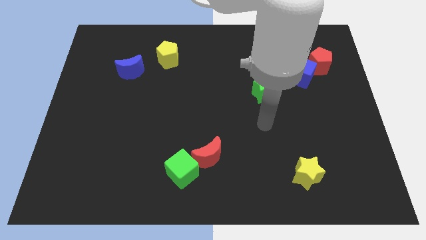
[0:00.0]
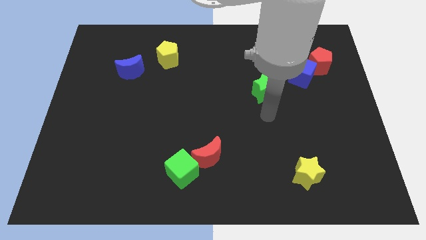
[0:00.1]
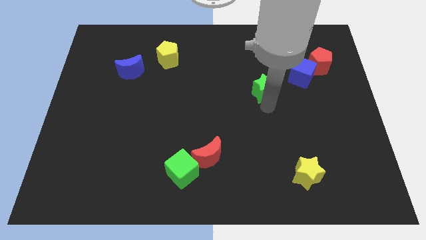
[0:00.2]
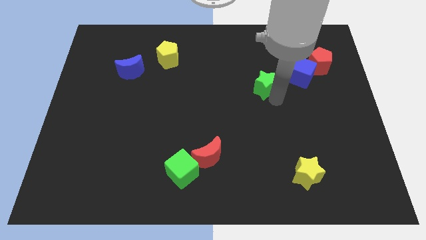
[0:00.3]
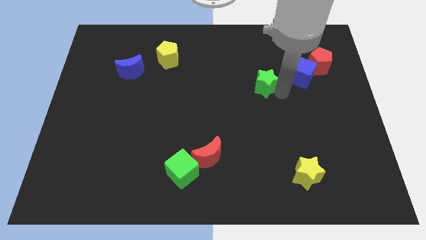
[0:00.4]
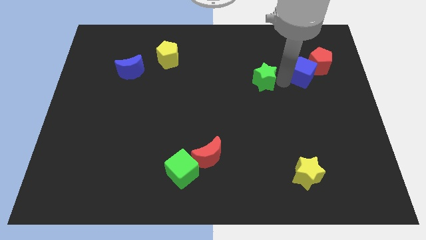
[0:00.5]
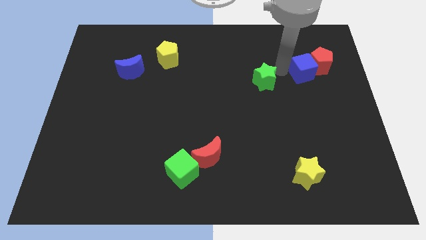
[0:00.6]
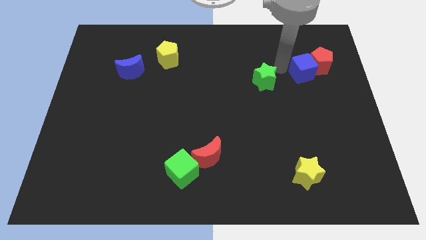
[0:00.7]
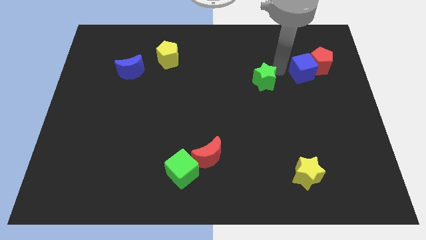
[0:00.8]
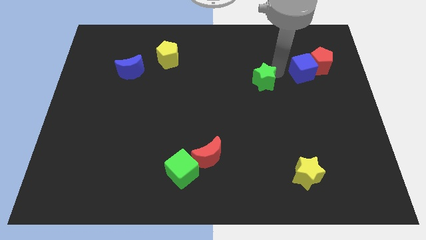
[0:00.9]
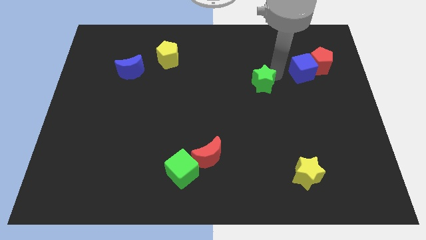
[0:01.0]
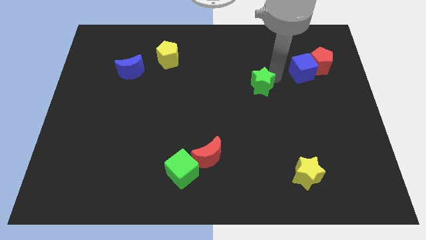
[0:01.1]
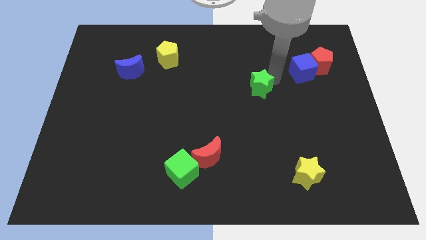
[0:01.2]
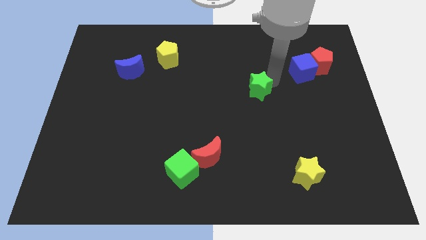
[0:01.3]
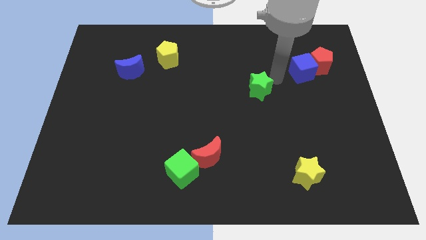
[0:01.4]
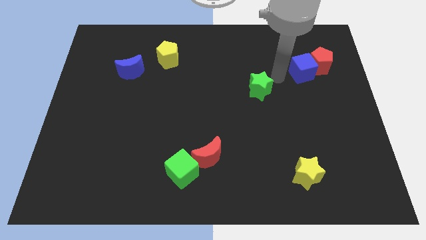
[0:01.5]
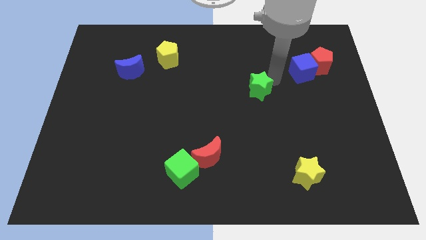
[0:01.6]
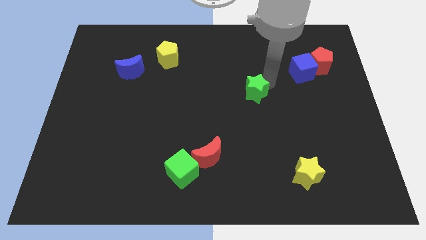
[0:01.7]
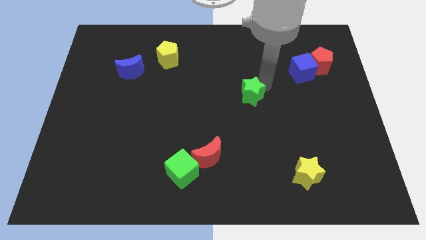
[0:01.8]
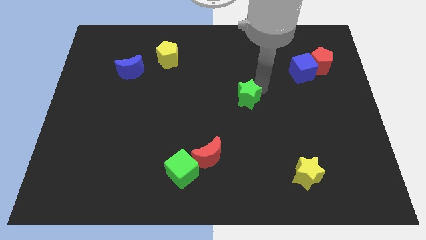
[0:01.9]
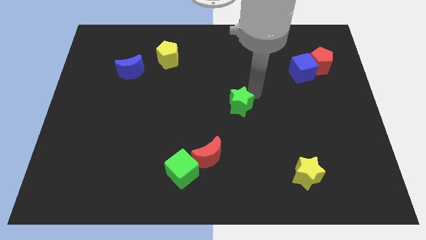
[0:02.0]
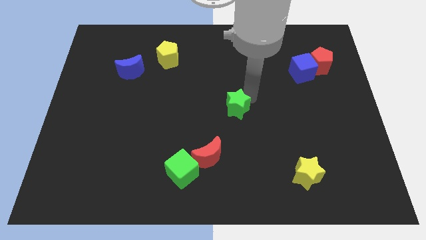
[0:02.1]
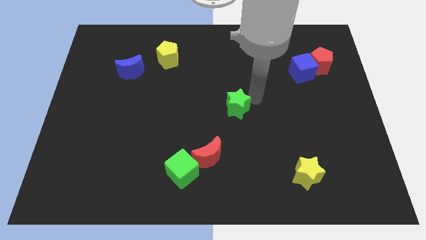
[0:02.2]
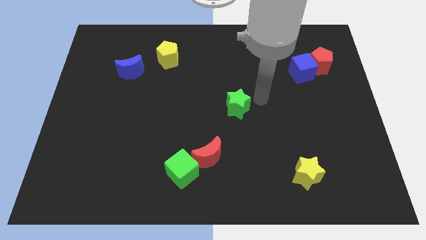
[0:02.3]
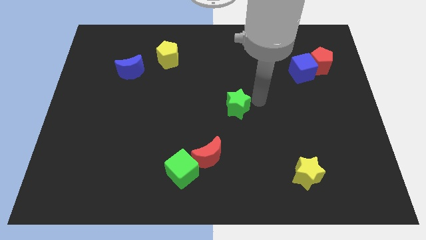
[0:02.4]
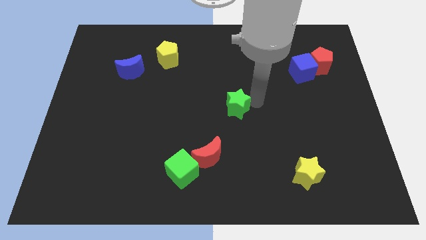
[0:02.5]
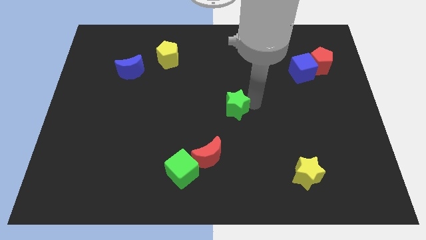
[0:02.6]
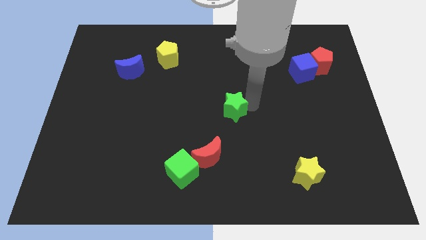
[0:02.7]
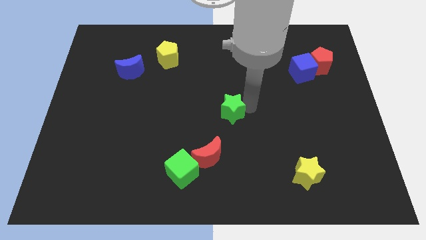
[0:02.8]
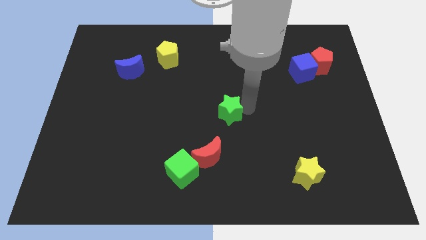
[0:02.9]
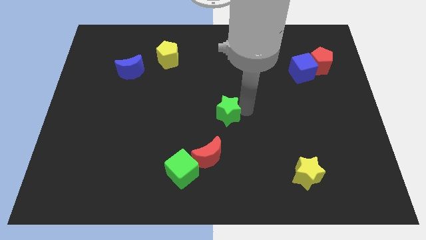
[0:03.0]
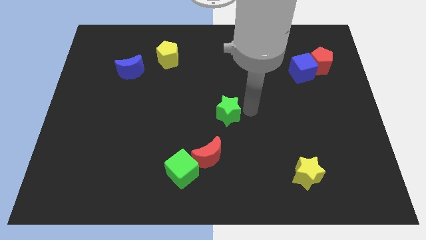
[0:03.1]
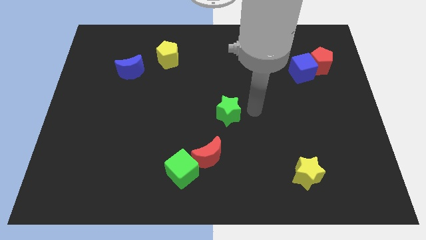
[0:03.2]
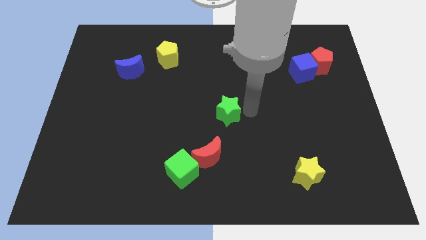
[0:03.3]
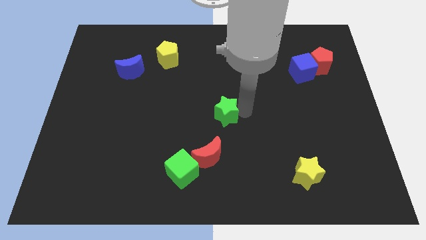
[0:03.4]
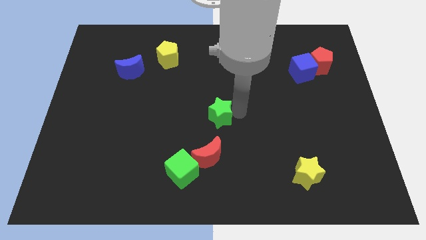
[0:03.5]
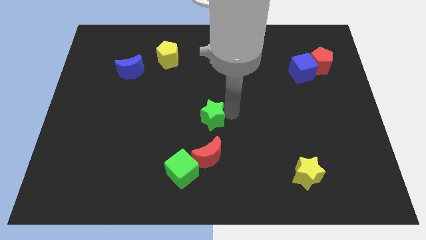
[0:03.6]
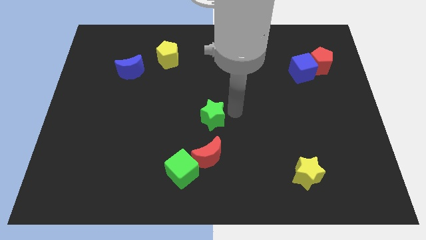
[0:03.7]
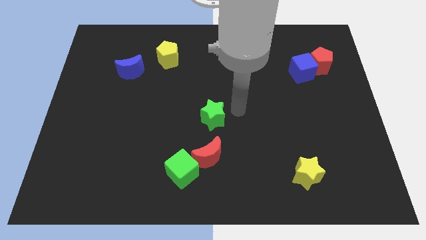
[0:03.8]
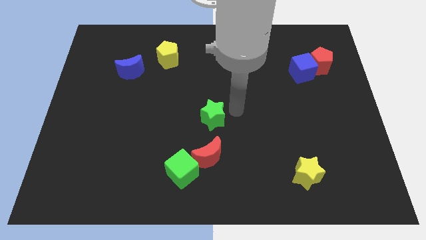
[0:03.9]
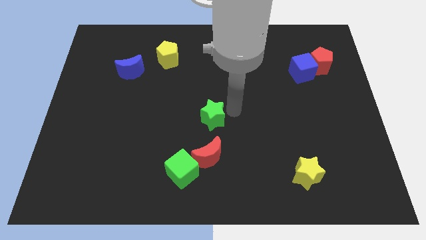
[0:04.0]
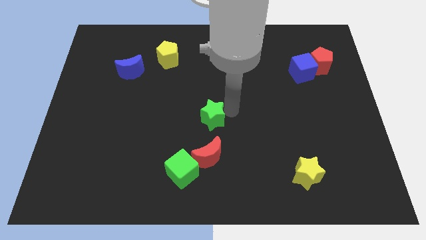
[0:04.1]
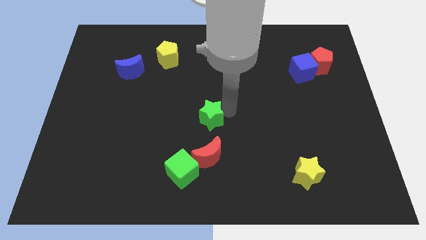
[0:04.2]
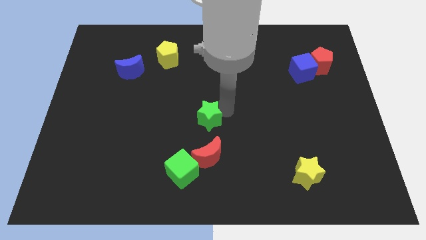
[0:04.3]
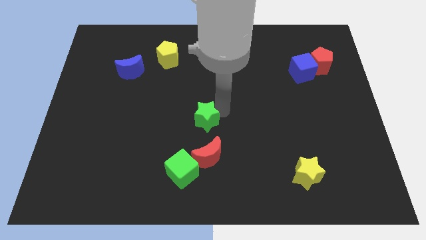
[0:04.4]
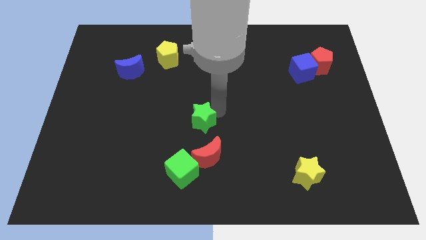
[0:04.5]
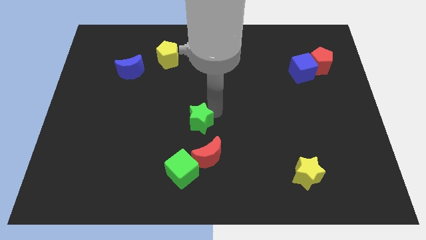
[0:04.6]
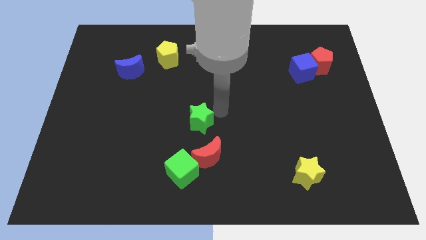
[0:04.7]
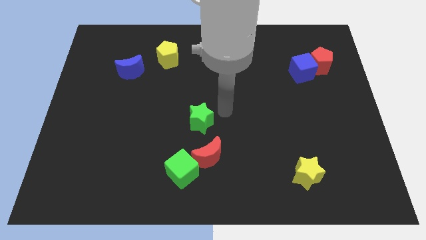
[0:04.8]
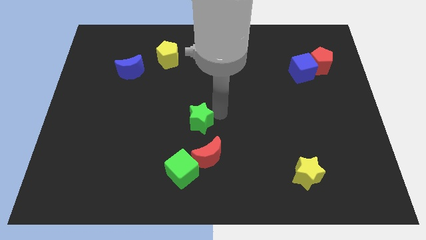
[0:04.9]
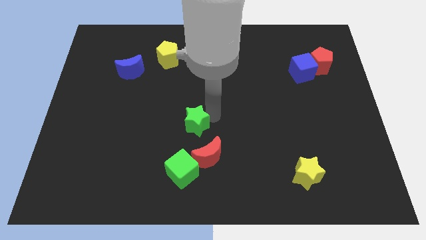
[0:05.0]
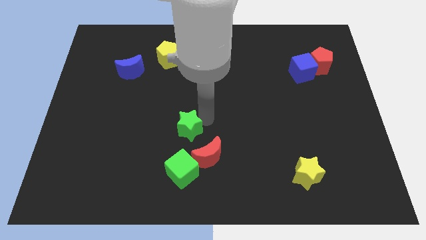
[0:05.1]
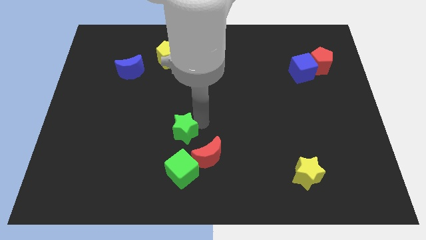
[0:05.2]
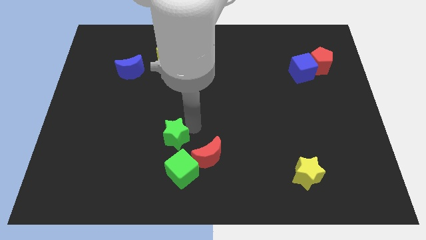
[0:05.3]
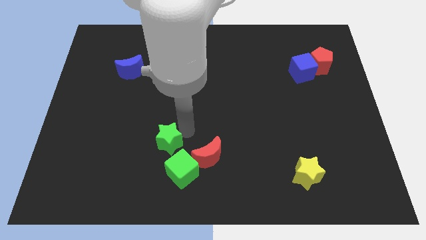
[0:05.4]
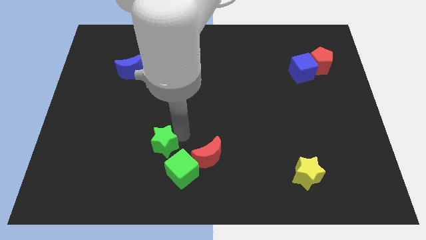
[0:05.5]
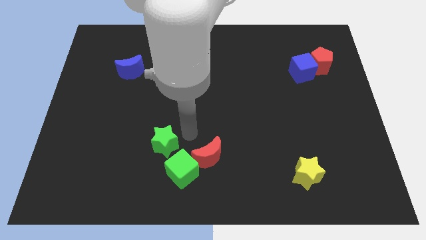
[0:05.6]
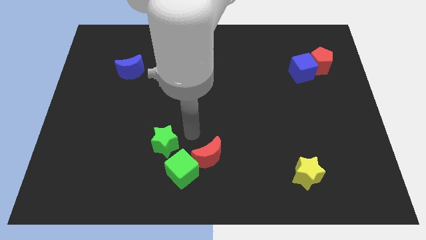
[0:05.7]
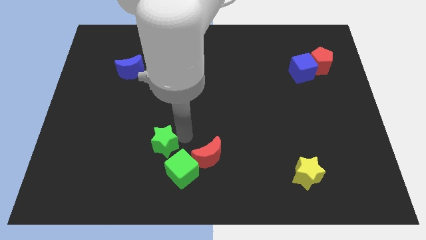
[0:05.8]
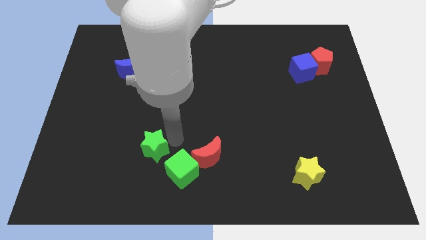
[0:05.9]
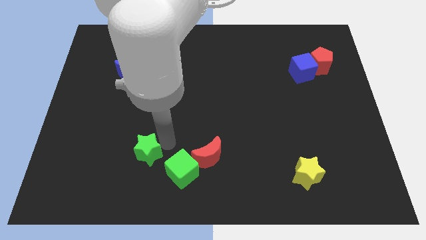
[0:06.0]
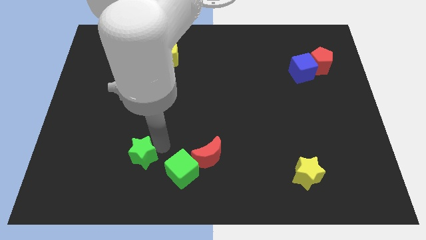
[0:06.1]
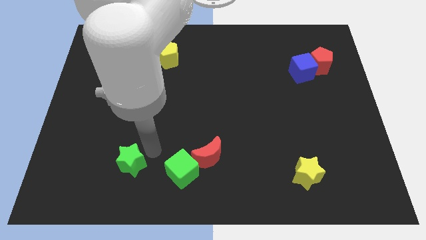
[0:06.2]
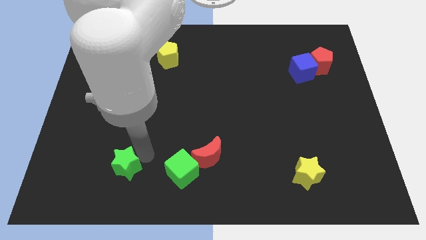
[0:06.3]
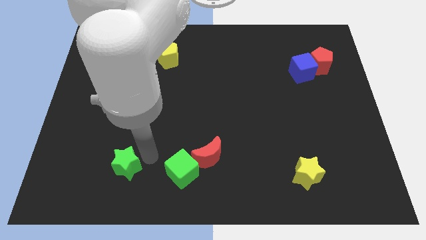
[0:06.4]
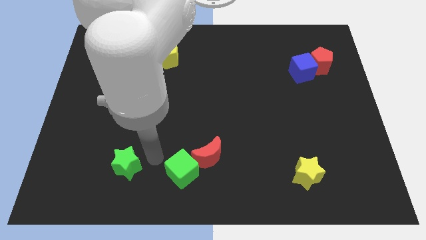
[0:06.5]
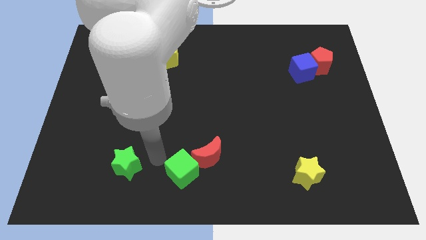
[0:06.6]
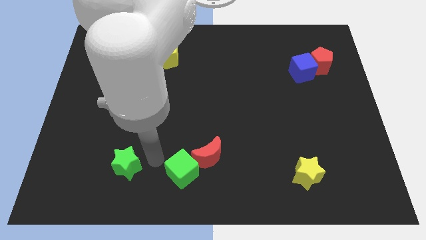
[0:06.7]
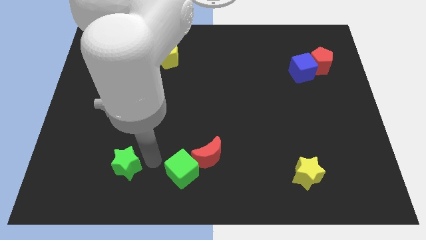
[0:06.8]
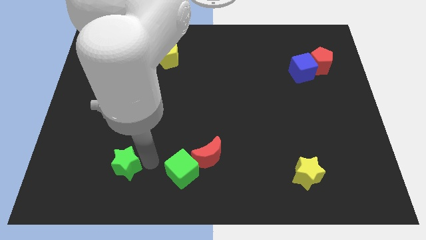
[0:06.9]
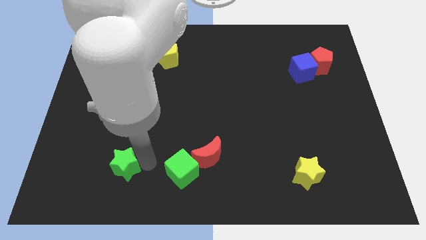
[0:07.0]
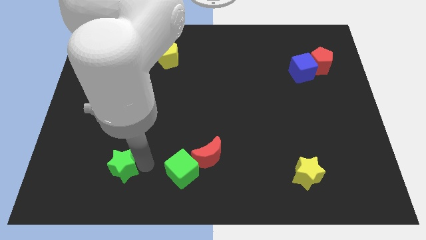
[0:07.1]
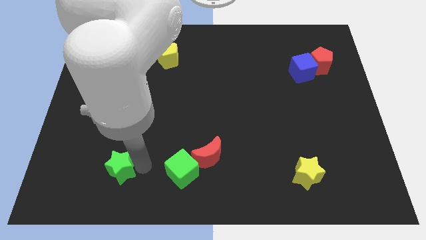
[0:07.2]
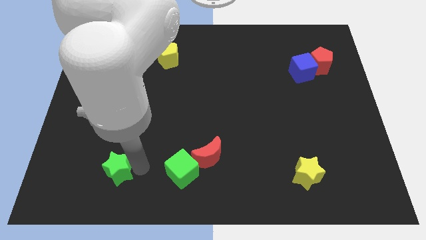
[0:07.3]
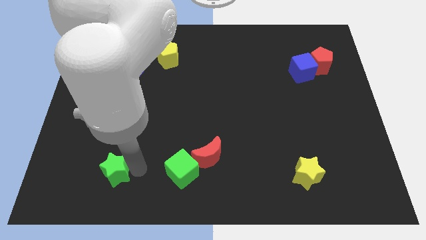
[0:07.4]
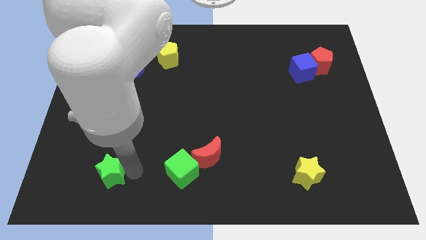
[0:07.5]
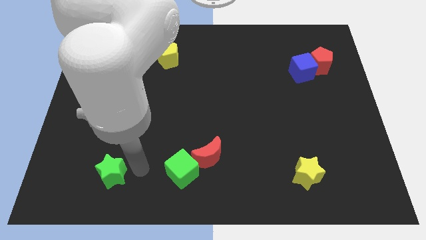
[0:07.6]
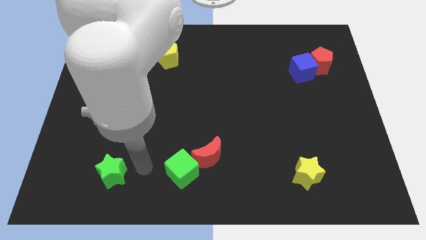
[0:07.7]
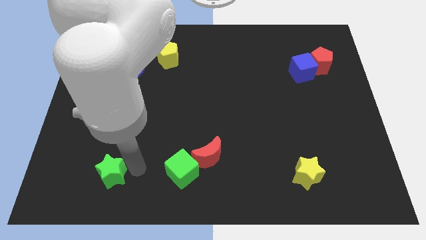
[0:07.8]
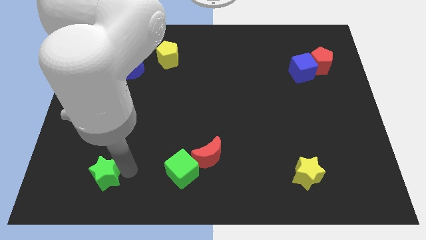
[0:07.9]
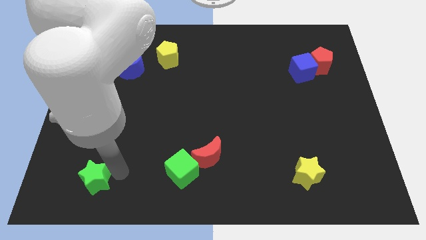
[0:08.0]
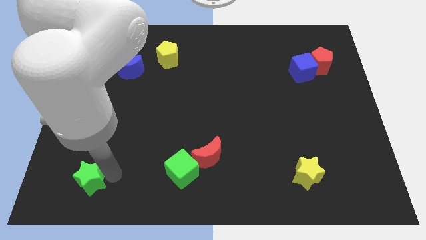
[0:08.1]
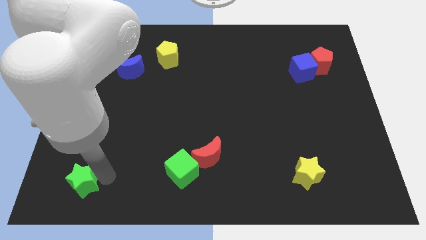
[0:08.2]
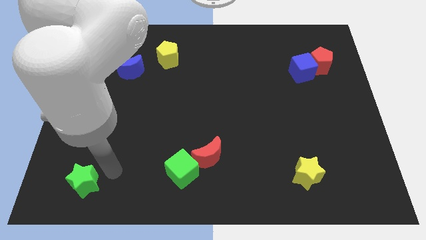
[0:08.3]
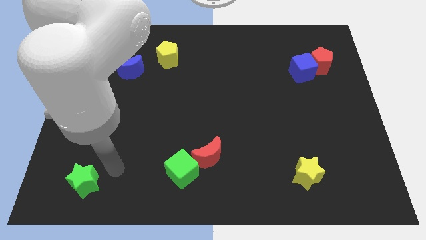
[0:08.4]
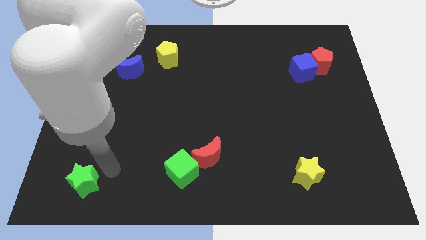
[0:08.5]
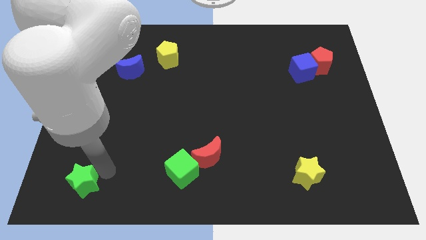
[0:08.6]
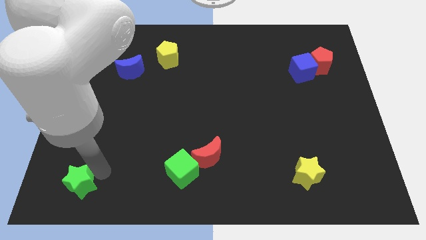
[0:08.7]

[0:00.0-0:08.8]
push the green star to the bottom left of the board
